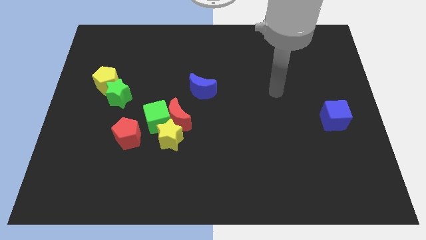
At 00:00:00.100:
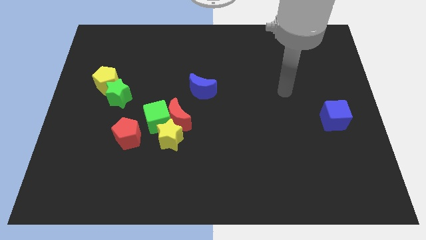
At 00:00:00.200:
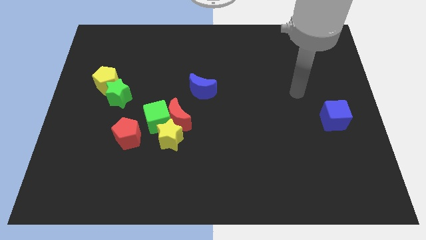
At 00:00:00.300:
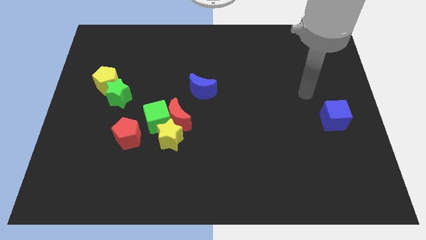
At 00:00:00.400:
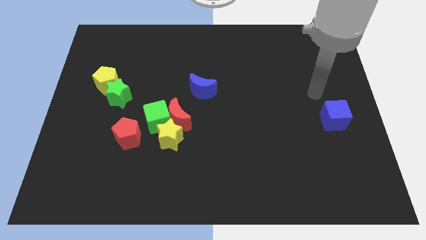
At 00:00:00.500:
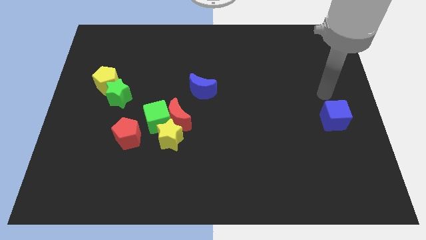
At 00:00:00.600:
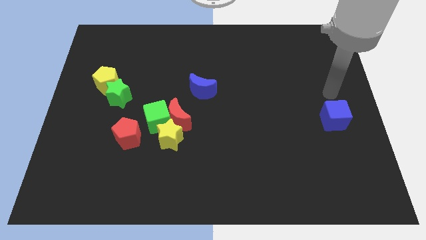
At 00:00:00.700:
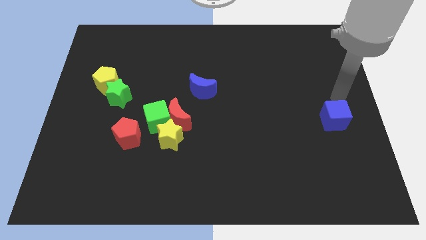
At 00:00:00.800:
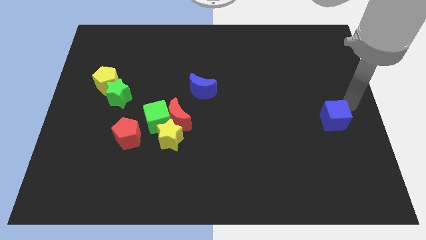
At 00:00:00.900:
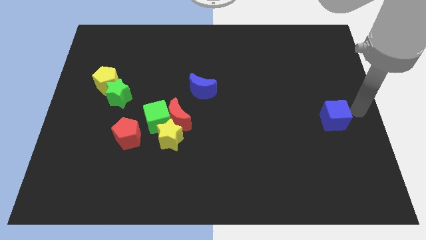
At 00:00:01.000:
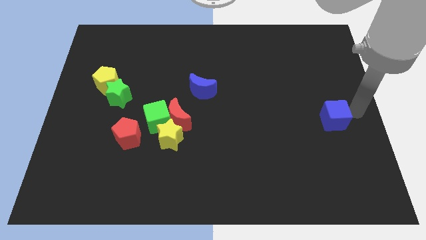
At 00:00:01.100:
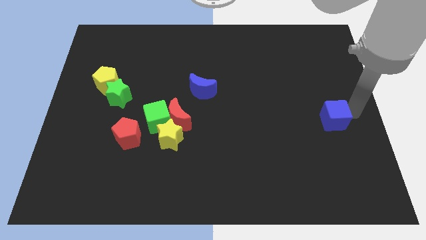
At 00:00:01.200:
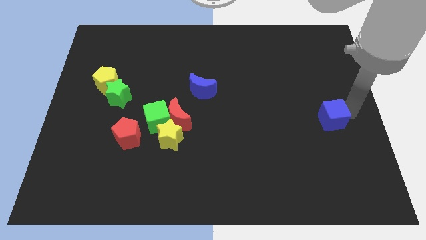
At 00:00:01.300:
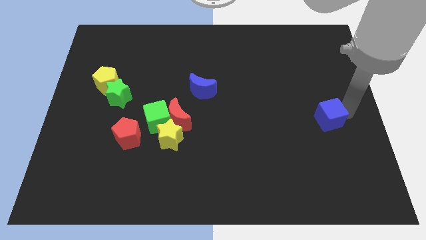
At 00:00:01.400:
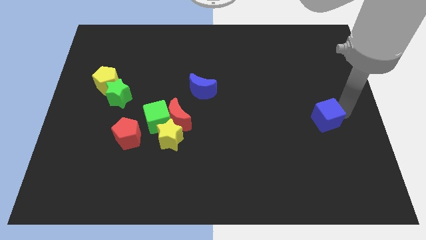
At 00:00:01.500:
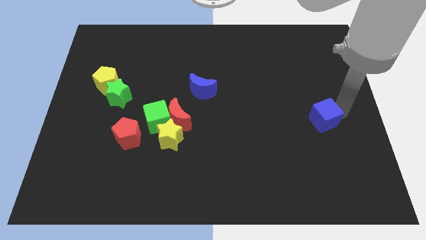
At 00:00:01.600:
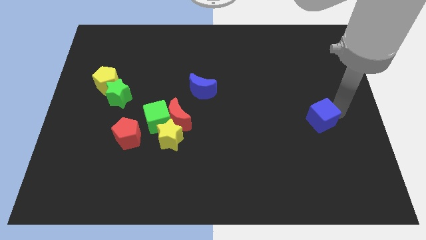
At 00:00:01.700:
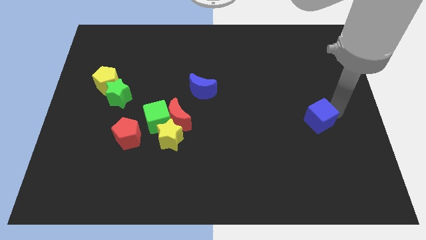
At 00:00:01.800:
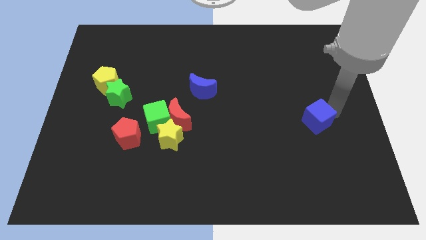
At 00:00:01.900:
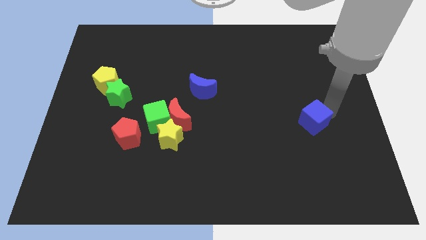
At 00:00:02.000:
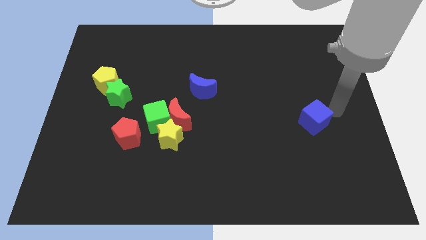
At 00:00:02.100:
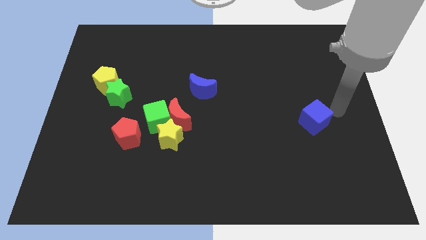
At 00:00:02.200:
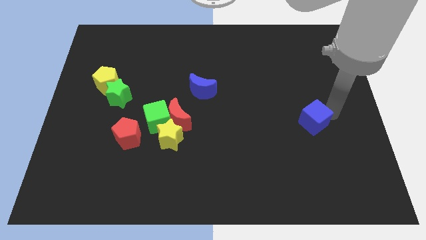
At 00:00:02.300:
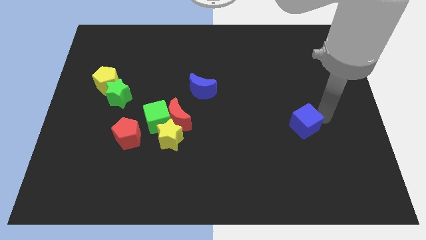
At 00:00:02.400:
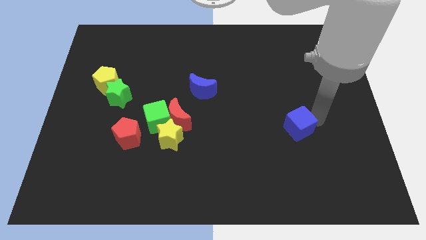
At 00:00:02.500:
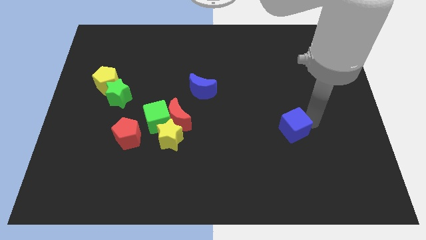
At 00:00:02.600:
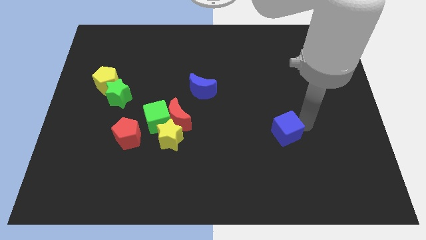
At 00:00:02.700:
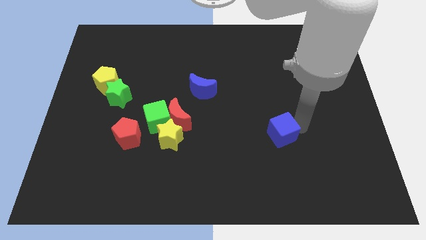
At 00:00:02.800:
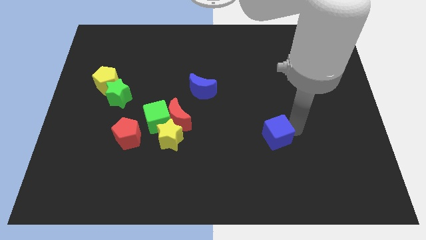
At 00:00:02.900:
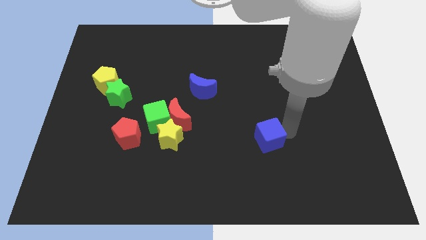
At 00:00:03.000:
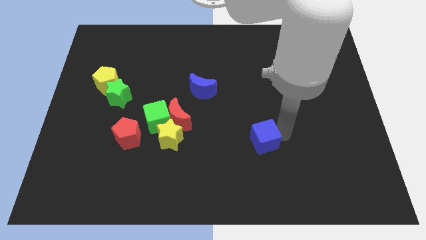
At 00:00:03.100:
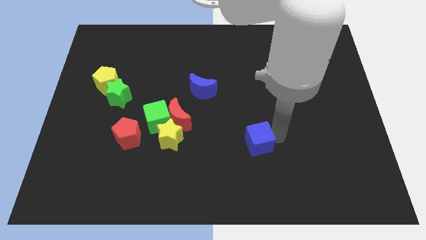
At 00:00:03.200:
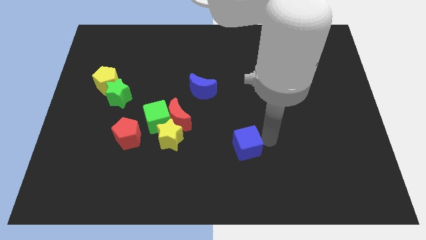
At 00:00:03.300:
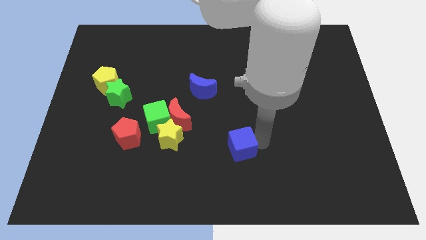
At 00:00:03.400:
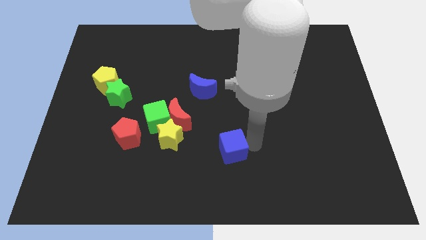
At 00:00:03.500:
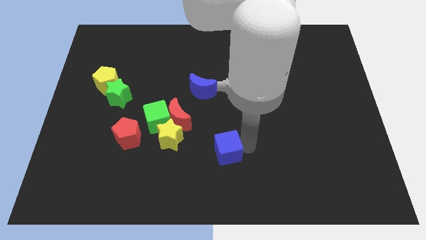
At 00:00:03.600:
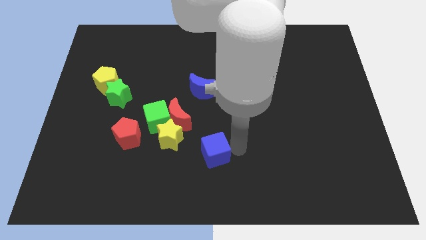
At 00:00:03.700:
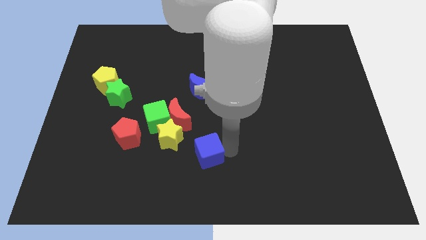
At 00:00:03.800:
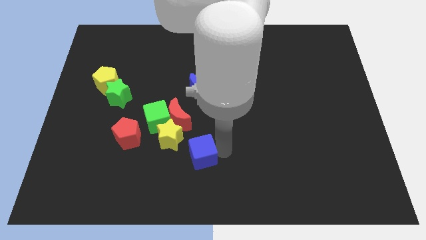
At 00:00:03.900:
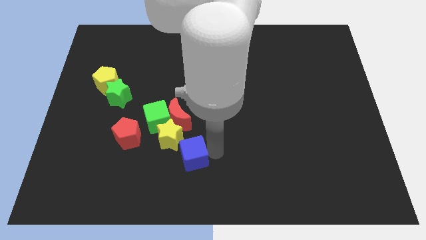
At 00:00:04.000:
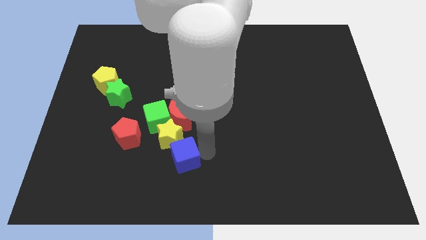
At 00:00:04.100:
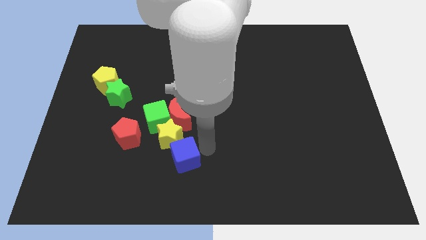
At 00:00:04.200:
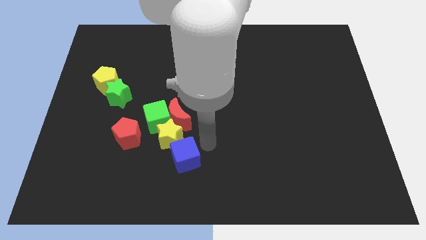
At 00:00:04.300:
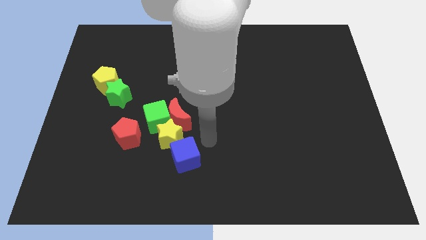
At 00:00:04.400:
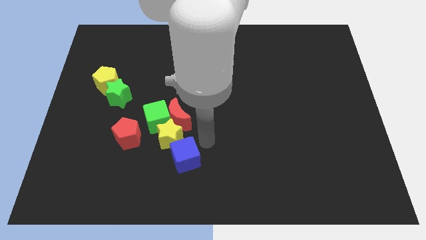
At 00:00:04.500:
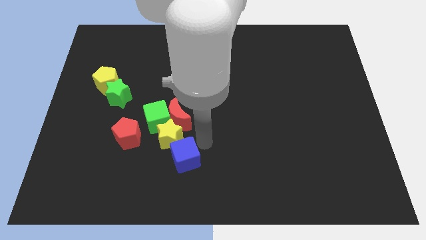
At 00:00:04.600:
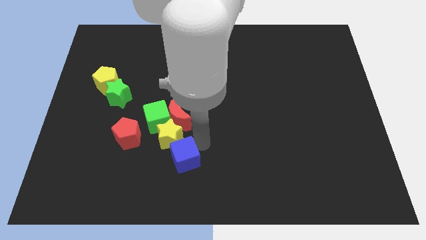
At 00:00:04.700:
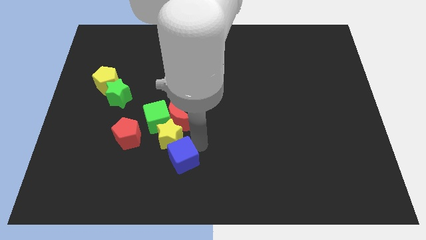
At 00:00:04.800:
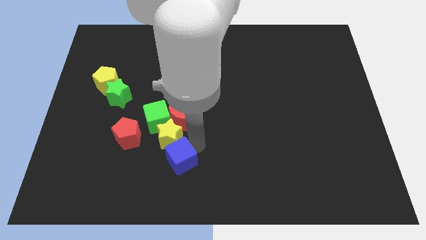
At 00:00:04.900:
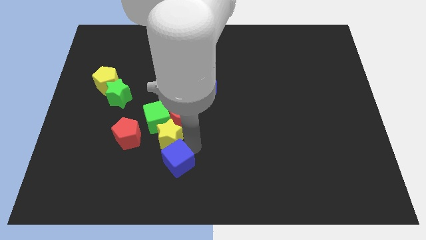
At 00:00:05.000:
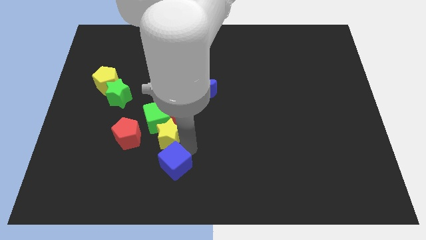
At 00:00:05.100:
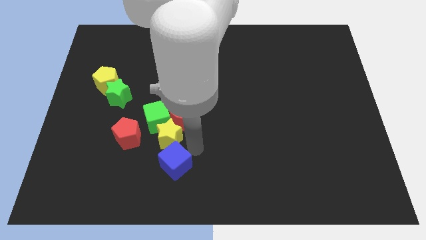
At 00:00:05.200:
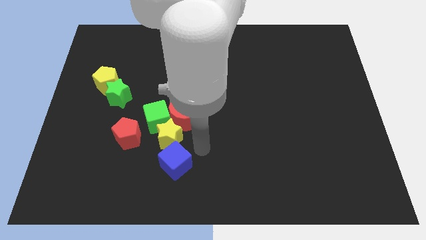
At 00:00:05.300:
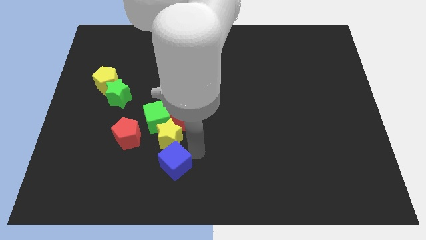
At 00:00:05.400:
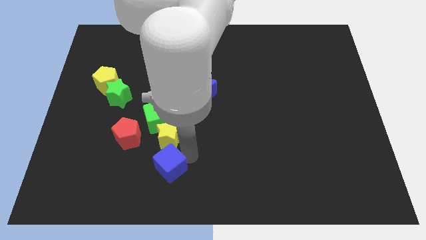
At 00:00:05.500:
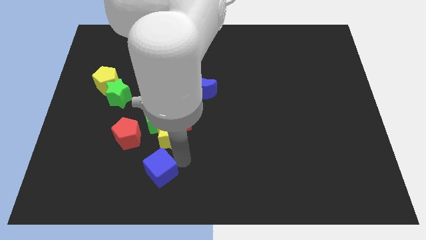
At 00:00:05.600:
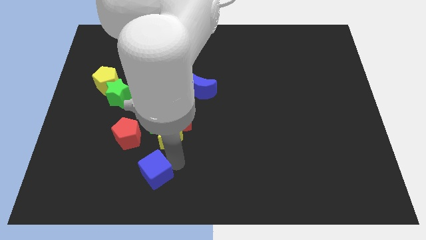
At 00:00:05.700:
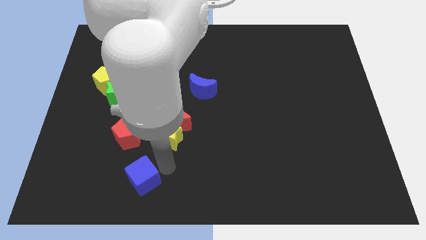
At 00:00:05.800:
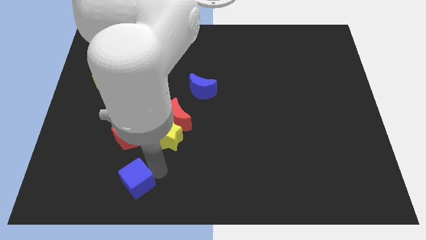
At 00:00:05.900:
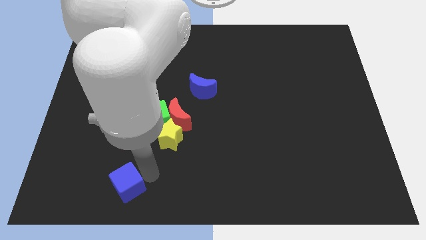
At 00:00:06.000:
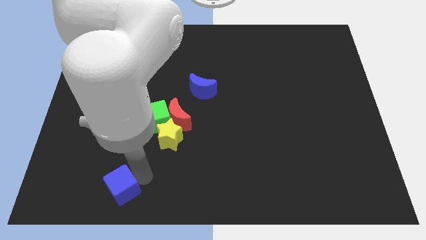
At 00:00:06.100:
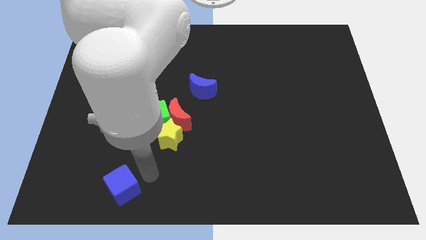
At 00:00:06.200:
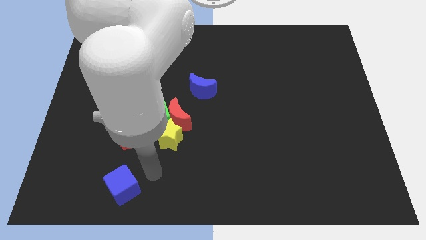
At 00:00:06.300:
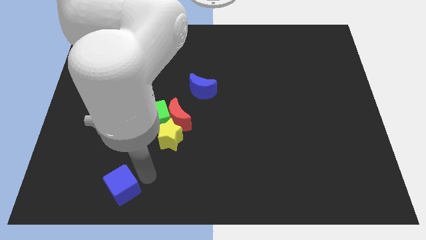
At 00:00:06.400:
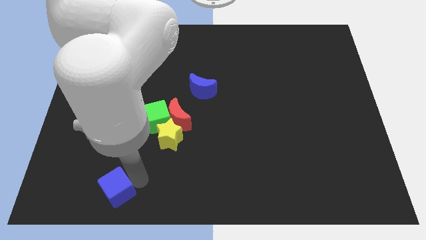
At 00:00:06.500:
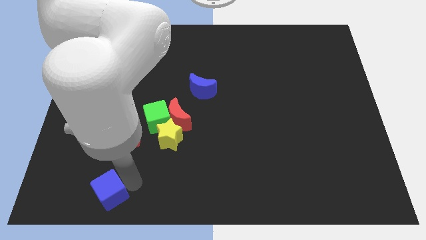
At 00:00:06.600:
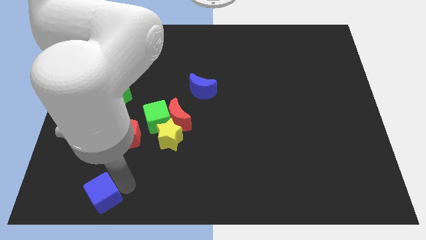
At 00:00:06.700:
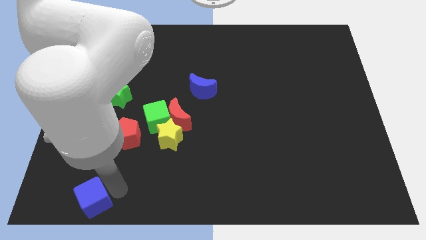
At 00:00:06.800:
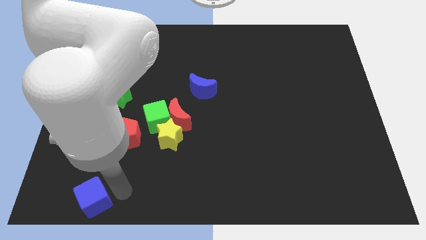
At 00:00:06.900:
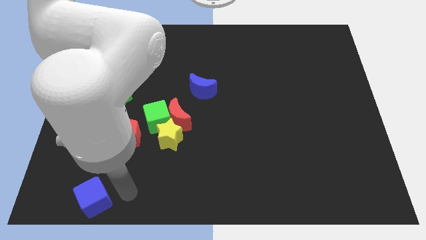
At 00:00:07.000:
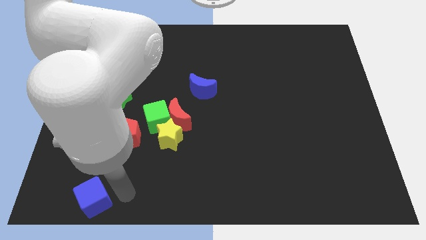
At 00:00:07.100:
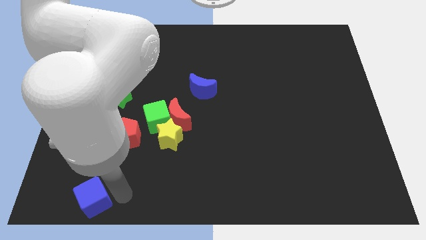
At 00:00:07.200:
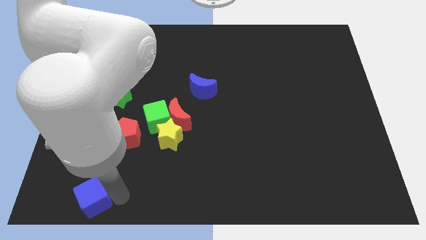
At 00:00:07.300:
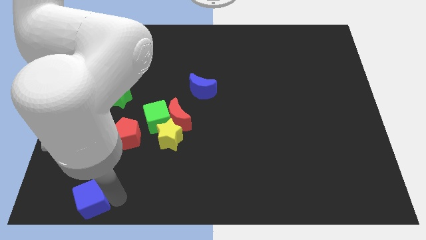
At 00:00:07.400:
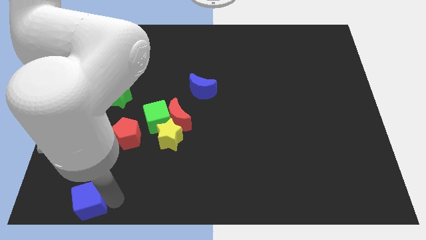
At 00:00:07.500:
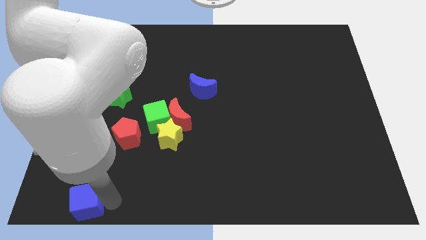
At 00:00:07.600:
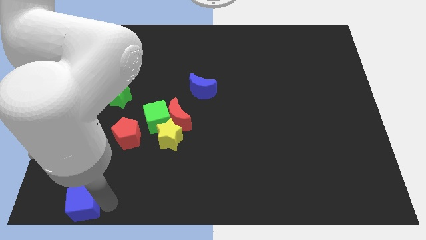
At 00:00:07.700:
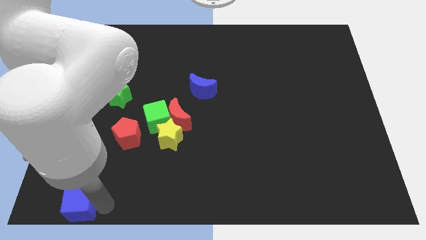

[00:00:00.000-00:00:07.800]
move the blue cube to the bottom left
